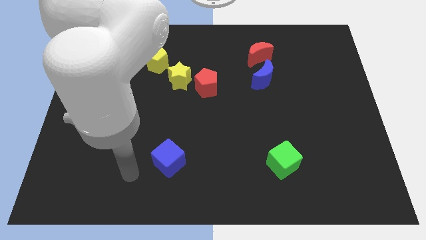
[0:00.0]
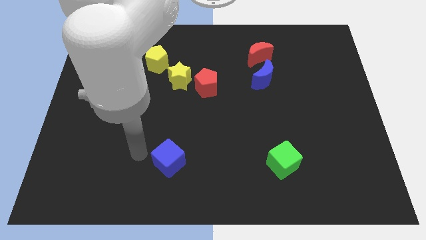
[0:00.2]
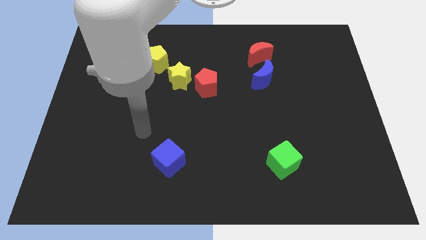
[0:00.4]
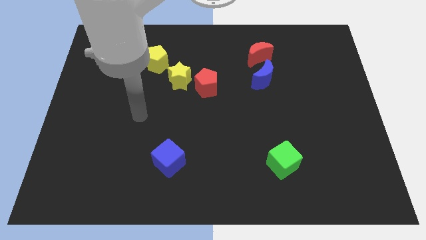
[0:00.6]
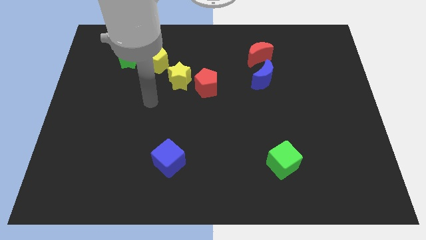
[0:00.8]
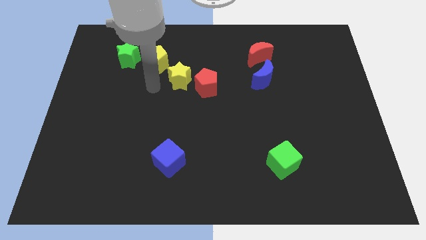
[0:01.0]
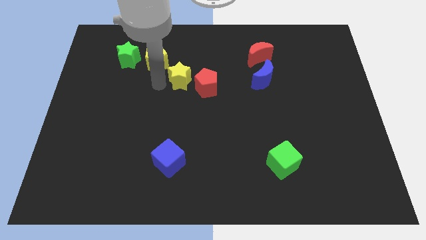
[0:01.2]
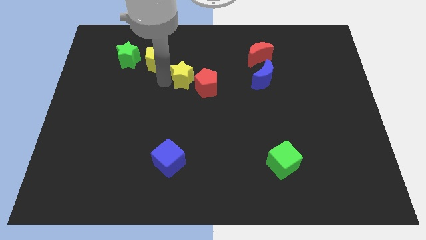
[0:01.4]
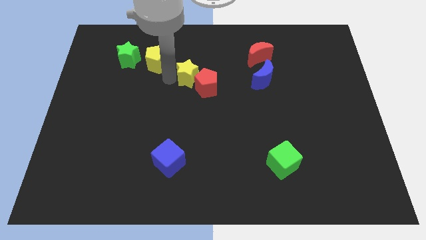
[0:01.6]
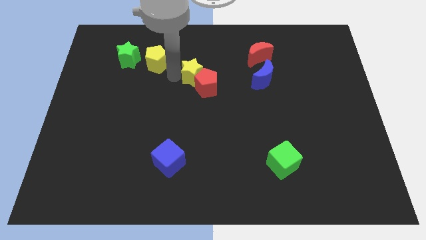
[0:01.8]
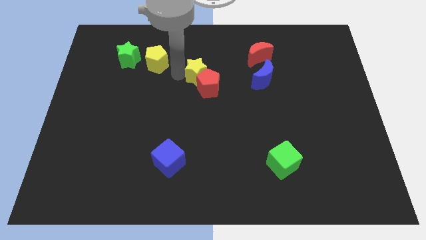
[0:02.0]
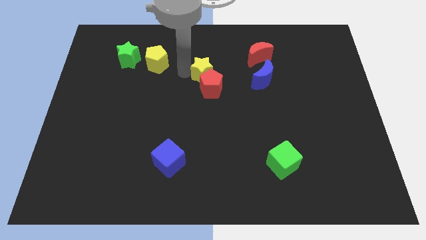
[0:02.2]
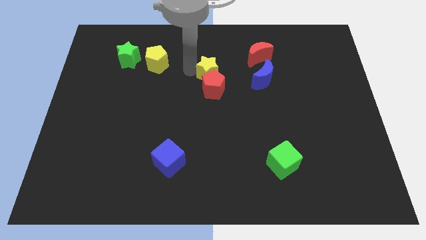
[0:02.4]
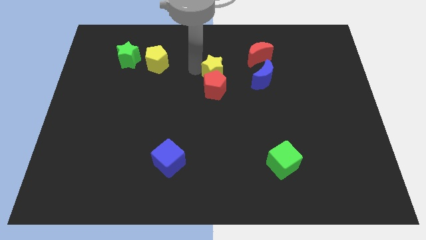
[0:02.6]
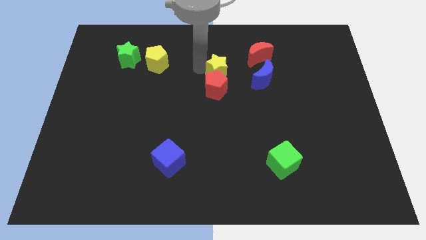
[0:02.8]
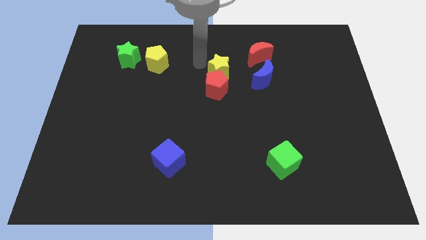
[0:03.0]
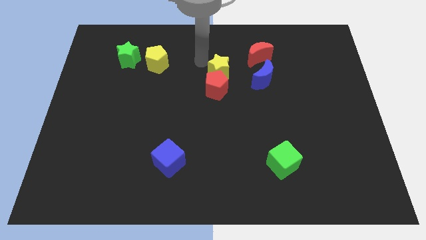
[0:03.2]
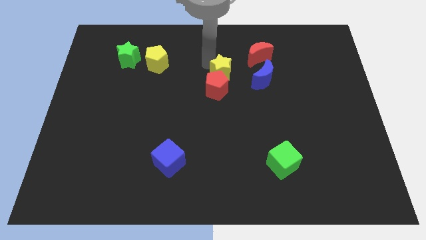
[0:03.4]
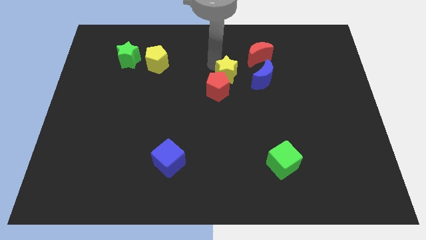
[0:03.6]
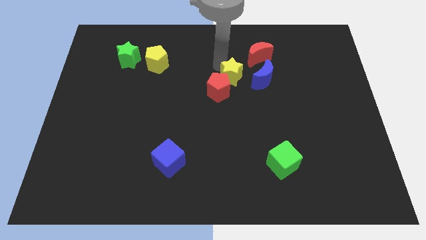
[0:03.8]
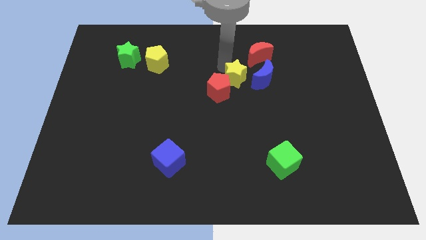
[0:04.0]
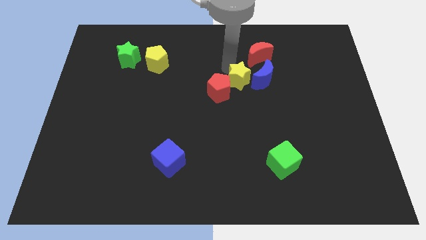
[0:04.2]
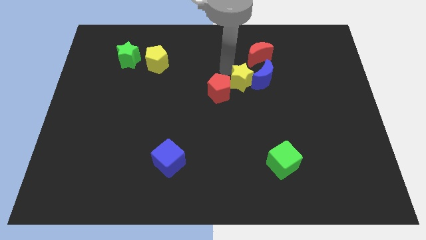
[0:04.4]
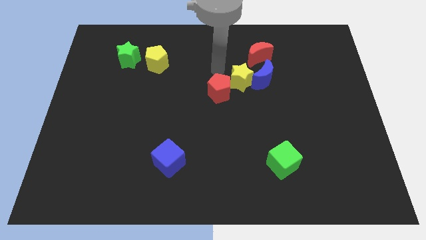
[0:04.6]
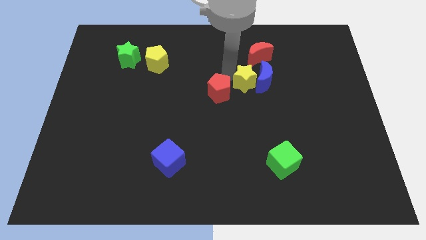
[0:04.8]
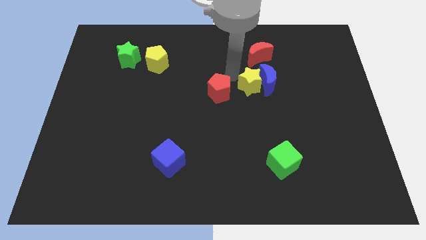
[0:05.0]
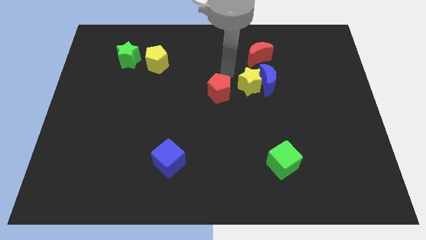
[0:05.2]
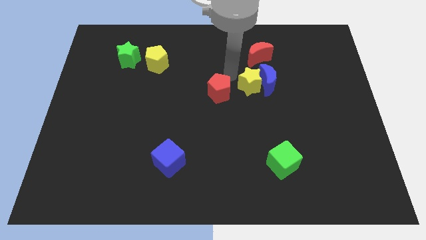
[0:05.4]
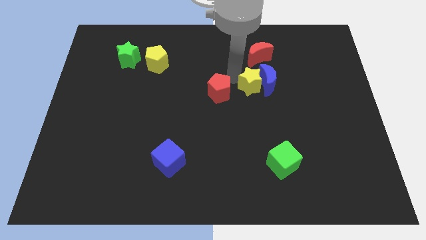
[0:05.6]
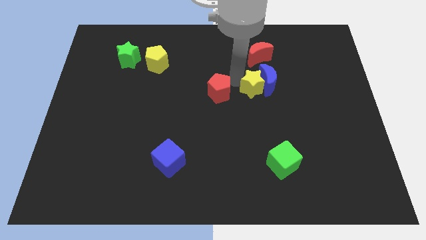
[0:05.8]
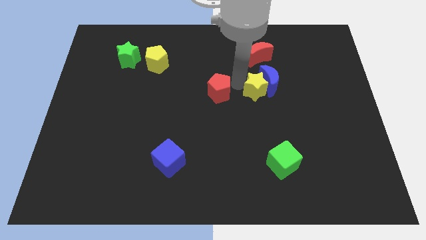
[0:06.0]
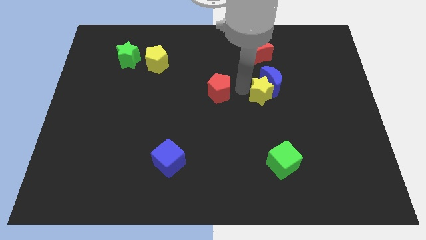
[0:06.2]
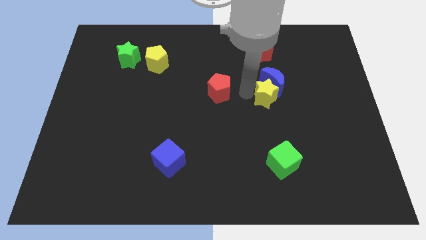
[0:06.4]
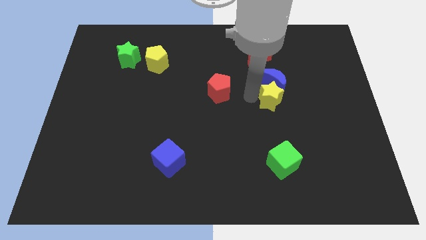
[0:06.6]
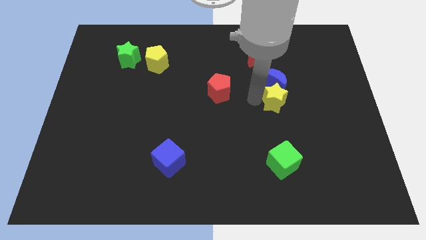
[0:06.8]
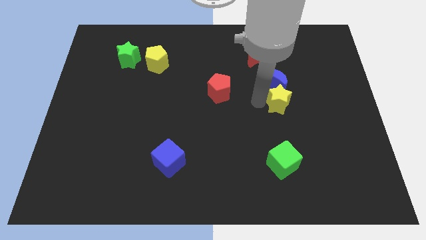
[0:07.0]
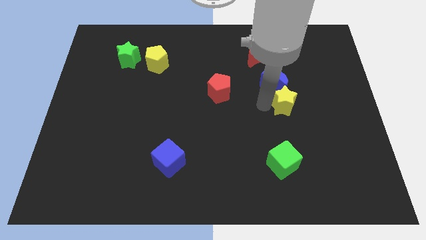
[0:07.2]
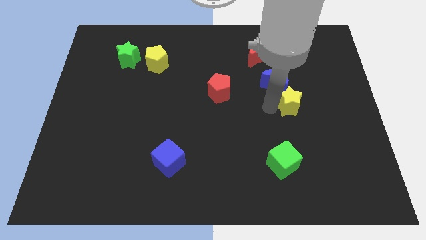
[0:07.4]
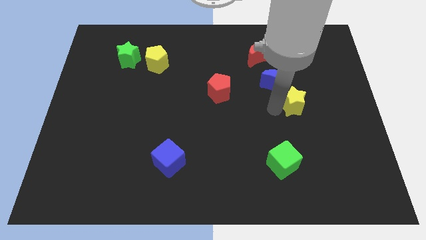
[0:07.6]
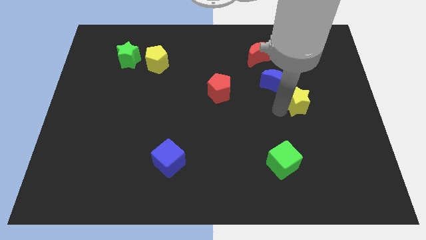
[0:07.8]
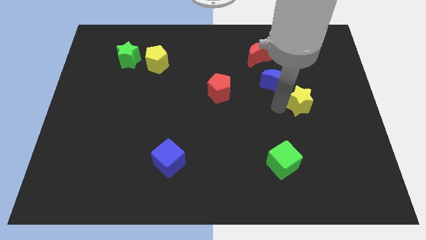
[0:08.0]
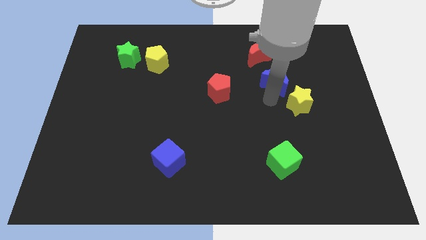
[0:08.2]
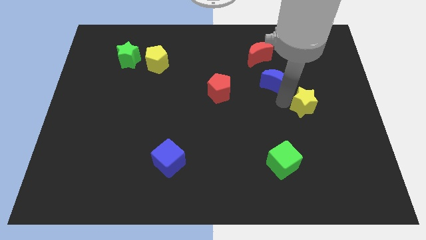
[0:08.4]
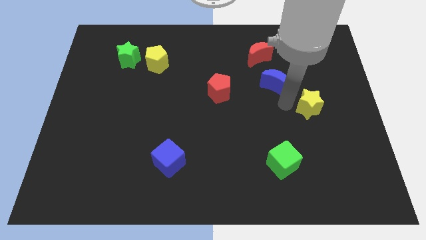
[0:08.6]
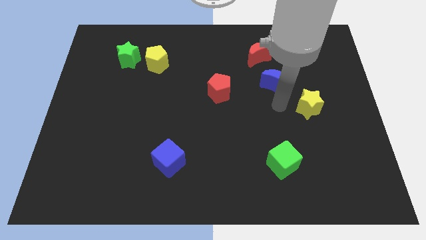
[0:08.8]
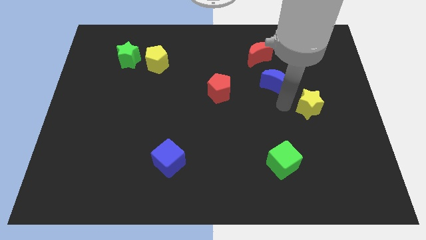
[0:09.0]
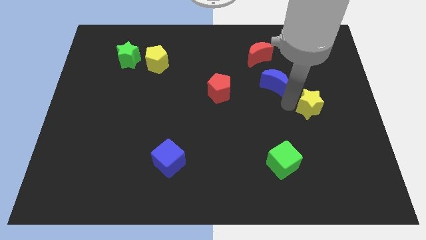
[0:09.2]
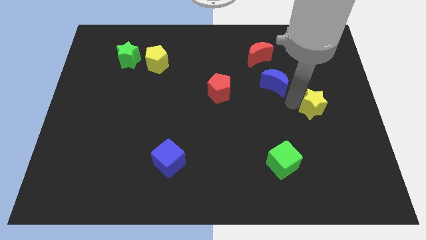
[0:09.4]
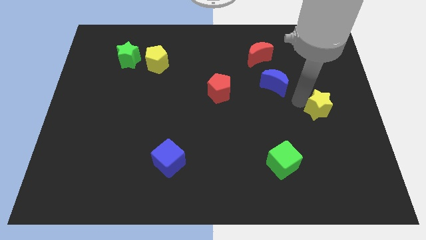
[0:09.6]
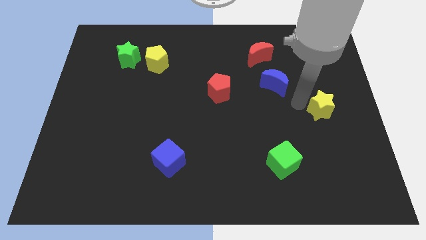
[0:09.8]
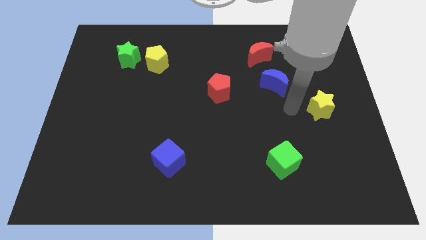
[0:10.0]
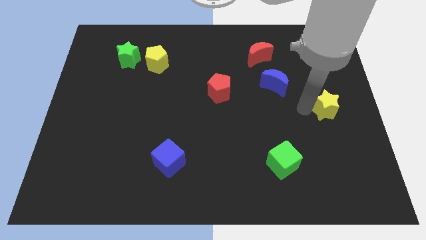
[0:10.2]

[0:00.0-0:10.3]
slide the yellow star to the right side

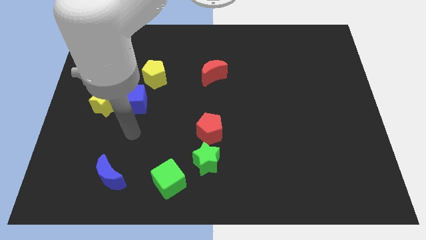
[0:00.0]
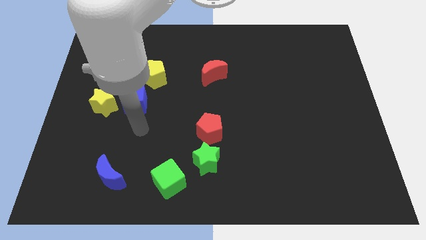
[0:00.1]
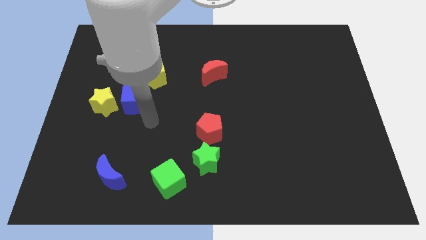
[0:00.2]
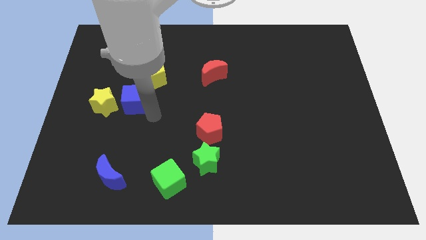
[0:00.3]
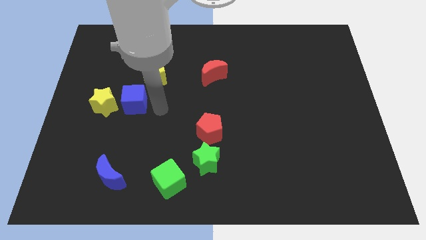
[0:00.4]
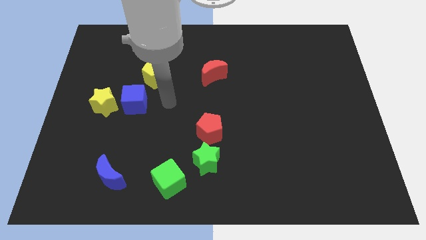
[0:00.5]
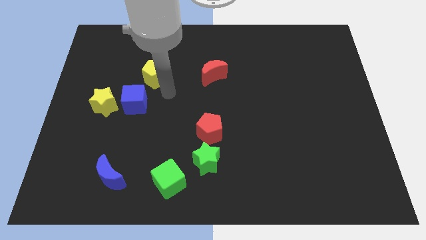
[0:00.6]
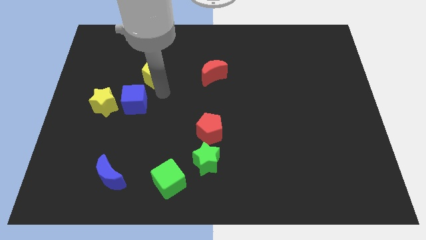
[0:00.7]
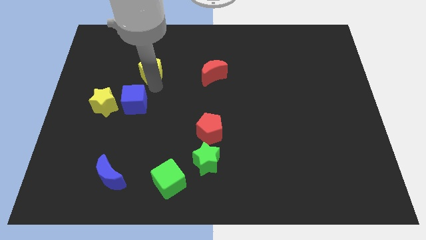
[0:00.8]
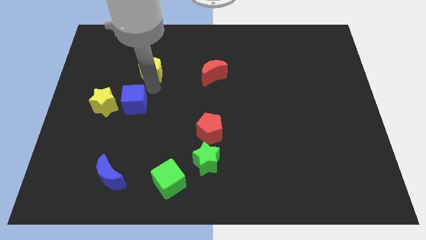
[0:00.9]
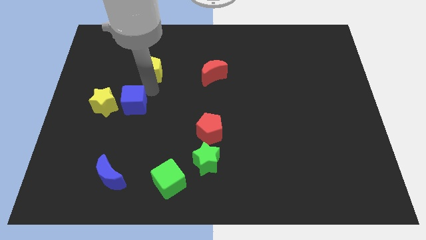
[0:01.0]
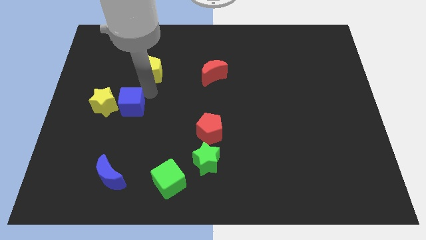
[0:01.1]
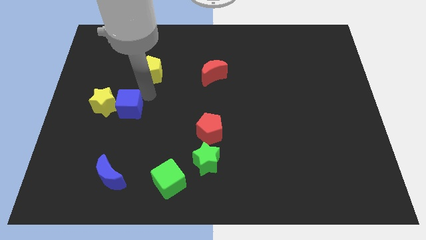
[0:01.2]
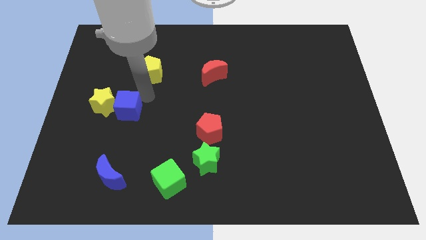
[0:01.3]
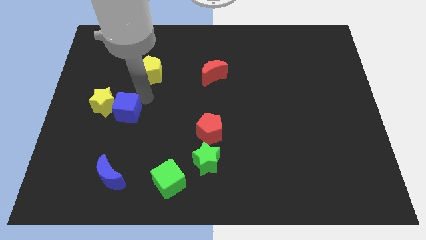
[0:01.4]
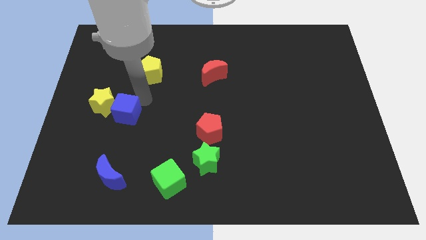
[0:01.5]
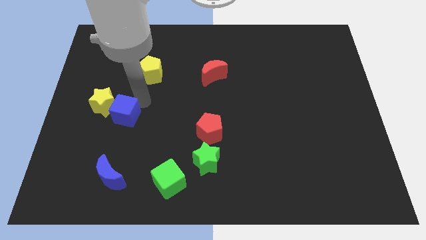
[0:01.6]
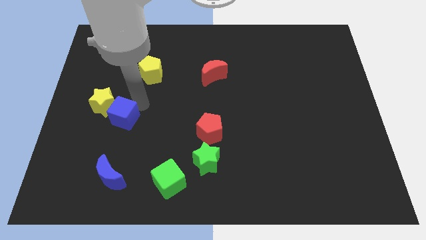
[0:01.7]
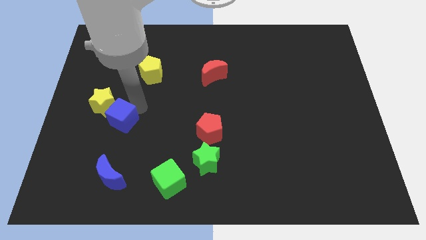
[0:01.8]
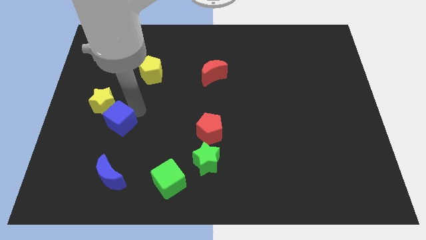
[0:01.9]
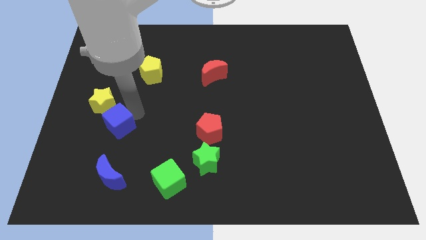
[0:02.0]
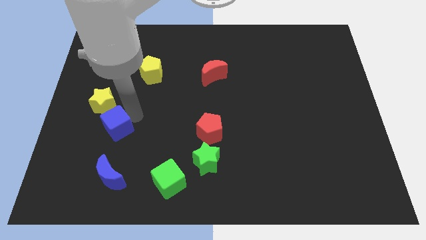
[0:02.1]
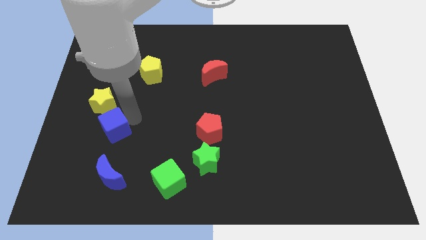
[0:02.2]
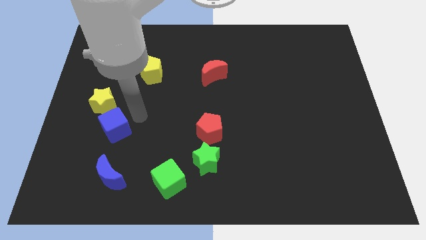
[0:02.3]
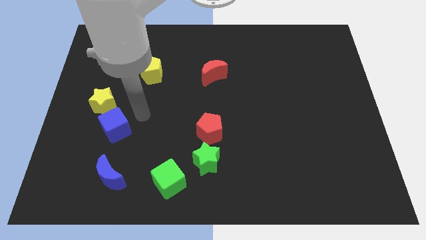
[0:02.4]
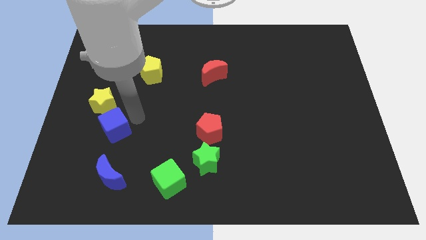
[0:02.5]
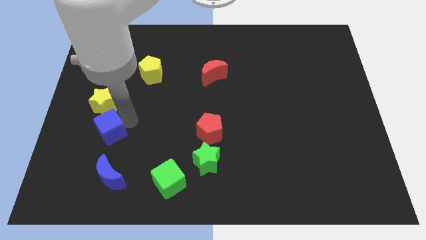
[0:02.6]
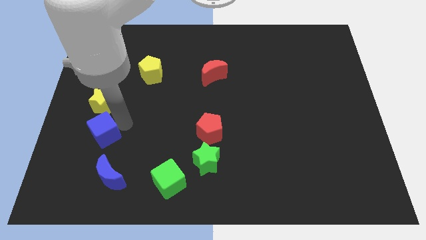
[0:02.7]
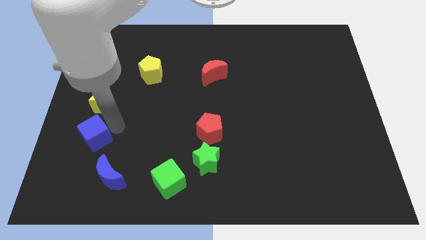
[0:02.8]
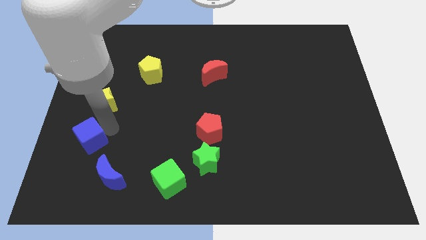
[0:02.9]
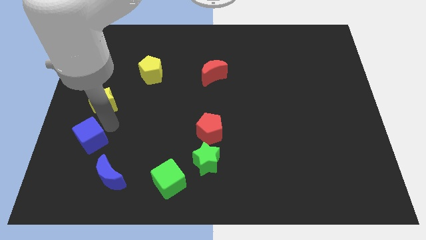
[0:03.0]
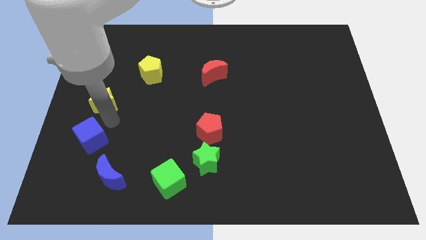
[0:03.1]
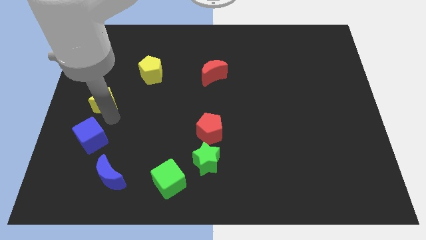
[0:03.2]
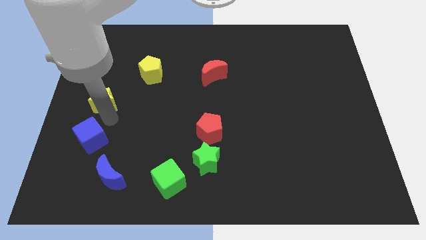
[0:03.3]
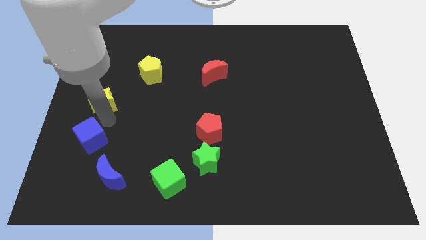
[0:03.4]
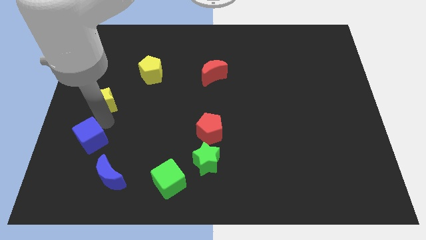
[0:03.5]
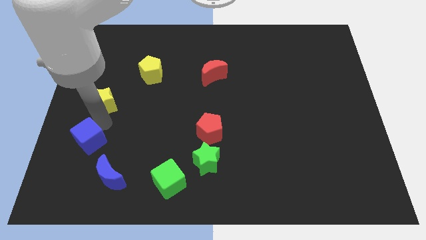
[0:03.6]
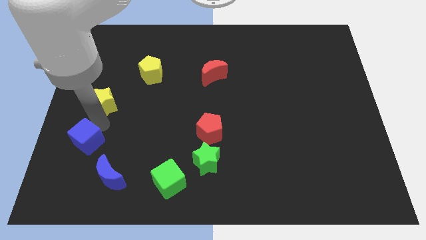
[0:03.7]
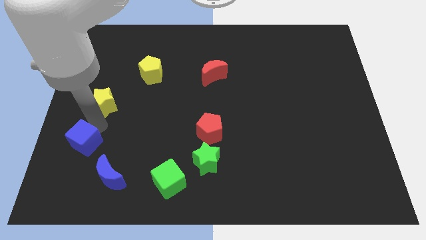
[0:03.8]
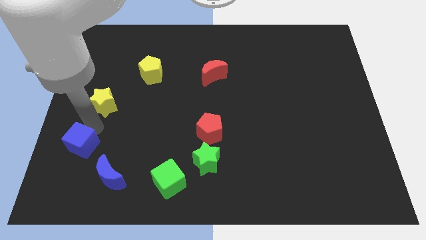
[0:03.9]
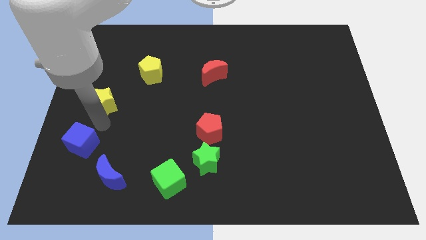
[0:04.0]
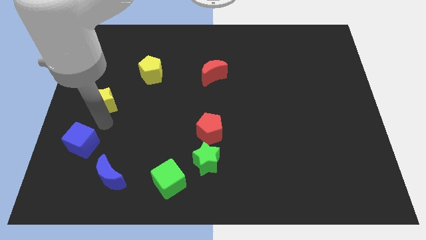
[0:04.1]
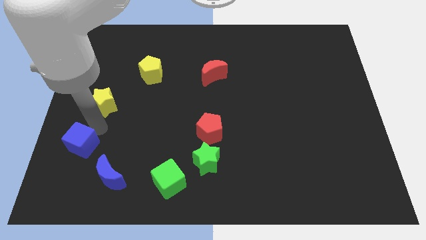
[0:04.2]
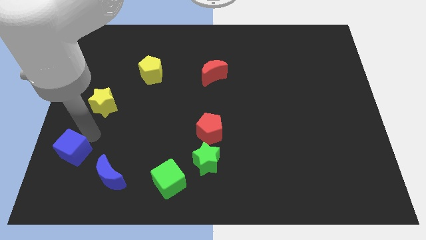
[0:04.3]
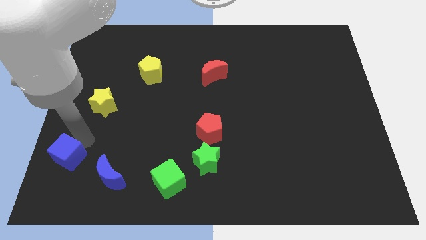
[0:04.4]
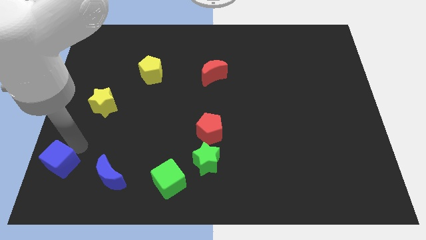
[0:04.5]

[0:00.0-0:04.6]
push the blue cube to the bottom left of the board
